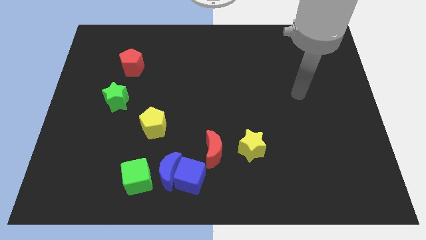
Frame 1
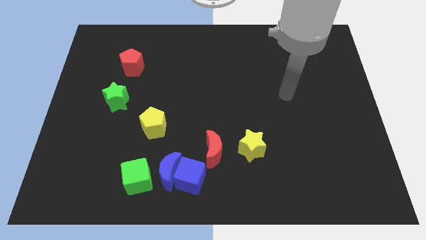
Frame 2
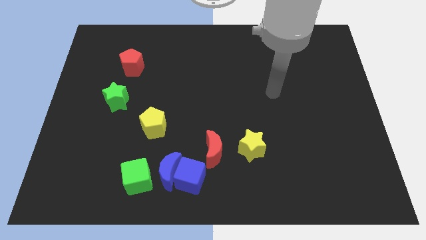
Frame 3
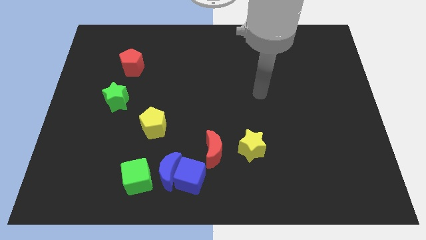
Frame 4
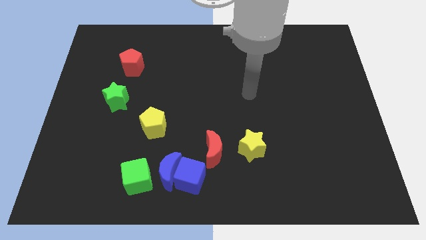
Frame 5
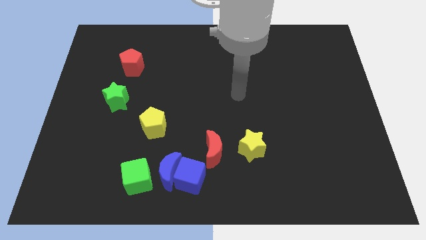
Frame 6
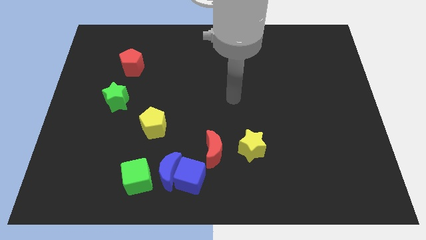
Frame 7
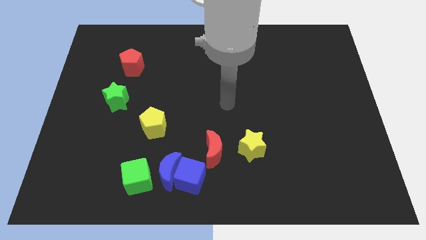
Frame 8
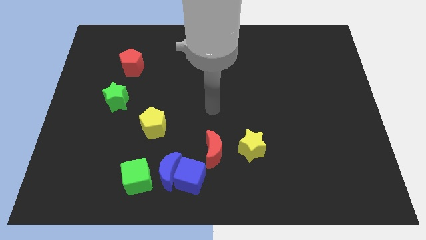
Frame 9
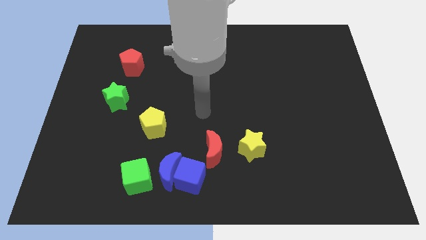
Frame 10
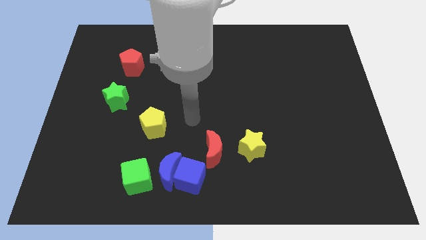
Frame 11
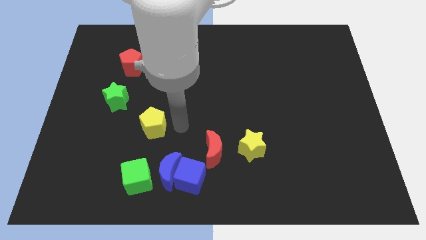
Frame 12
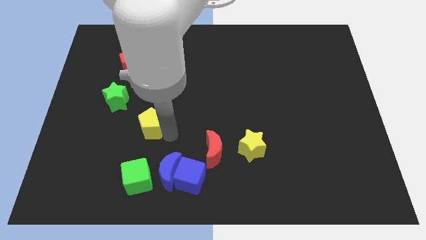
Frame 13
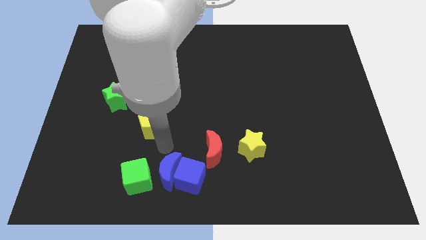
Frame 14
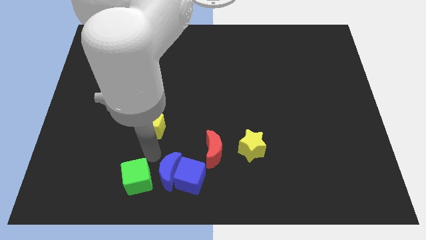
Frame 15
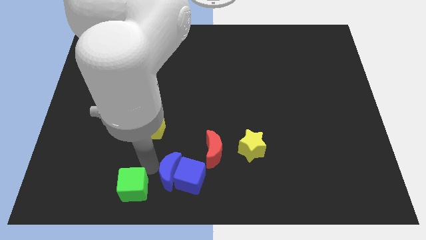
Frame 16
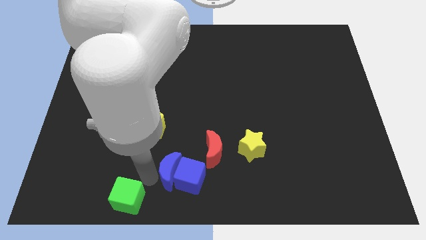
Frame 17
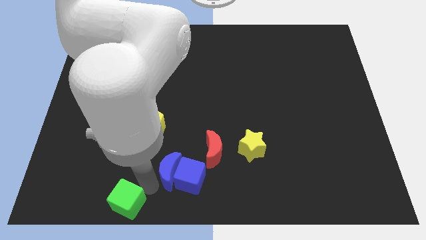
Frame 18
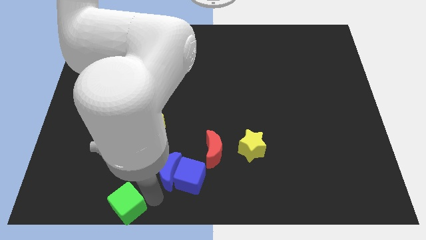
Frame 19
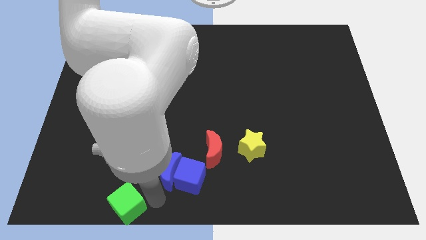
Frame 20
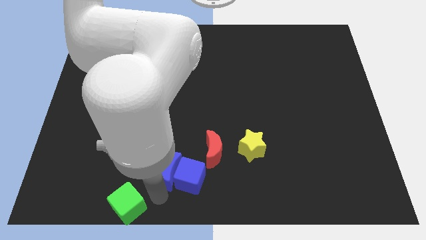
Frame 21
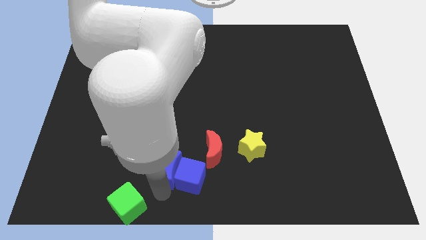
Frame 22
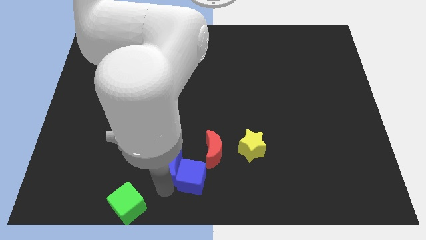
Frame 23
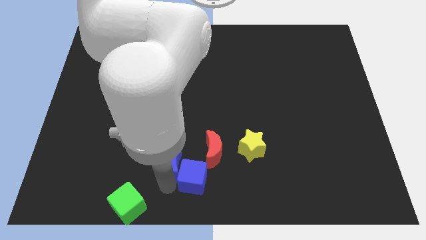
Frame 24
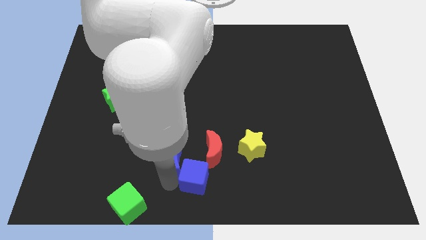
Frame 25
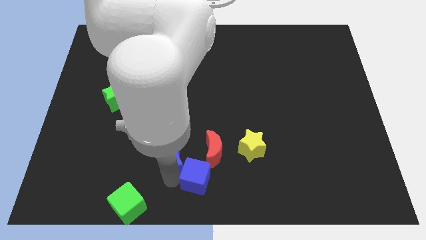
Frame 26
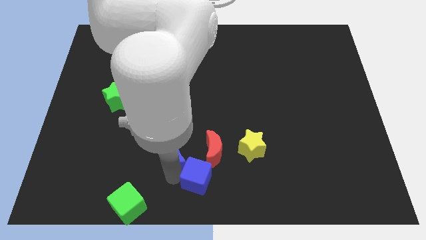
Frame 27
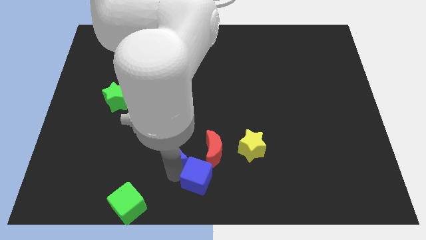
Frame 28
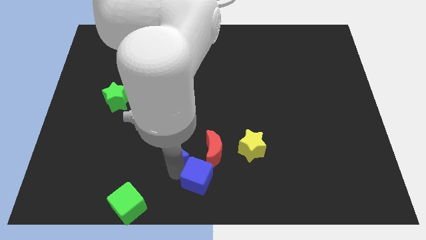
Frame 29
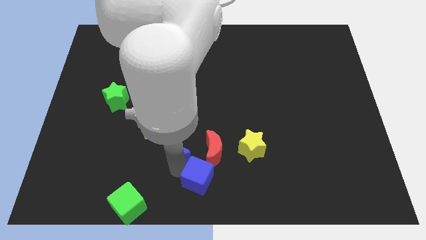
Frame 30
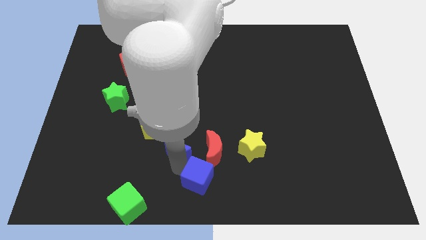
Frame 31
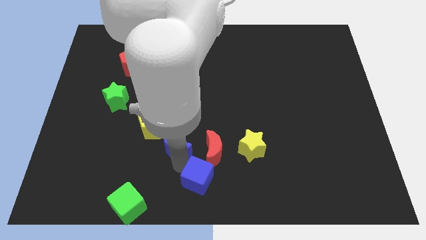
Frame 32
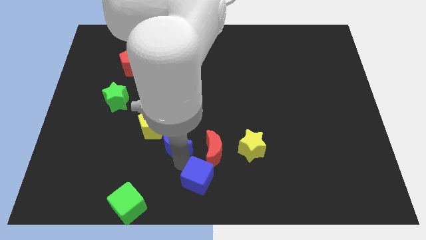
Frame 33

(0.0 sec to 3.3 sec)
pull the blue moon apart from the blue cube and green cube

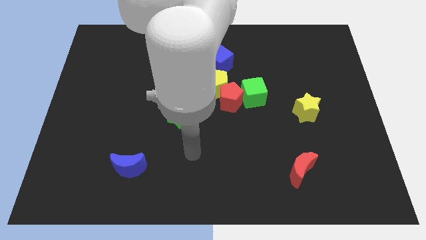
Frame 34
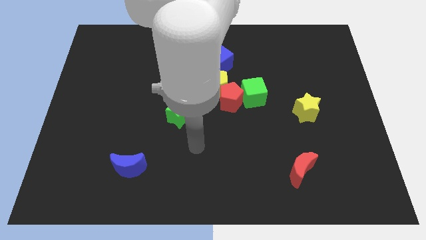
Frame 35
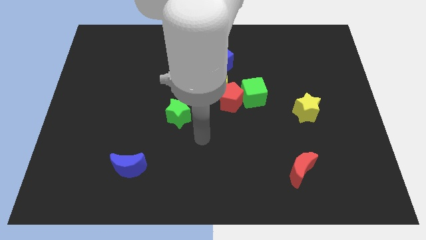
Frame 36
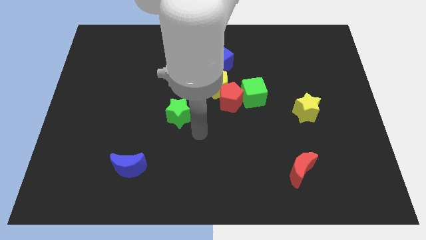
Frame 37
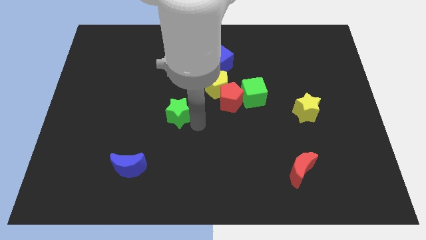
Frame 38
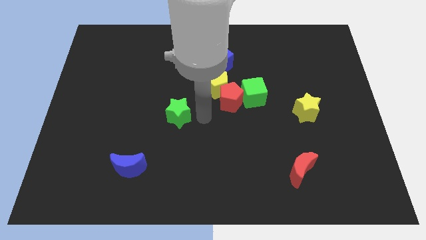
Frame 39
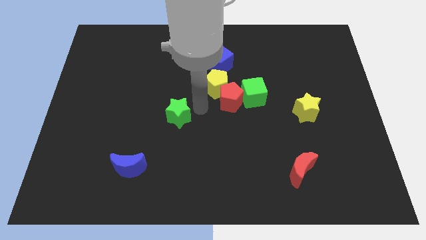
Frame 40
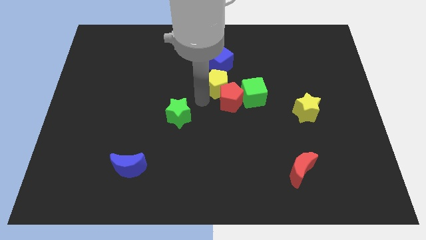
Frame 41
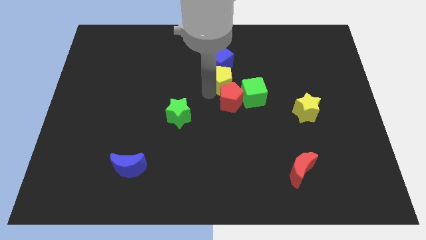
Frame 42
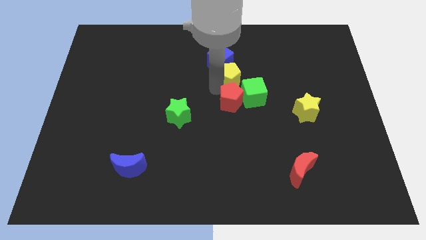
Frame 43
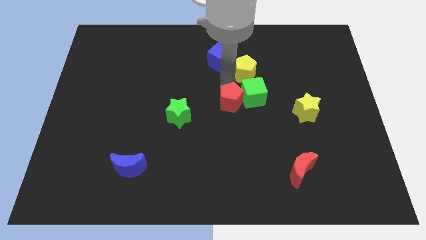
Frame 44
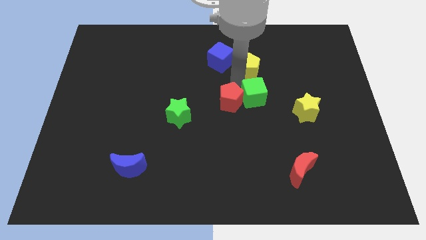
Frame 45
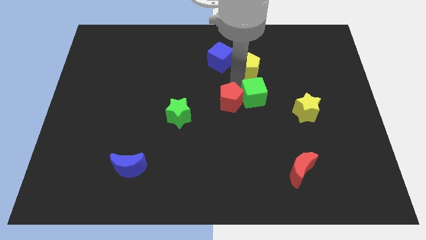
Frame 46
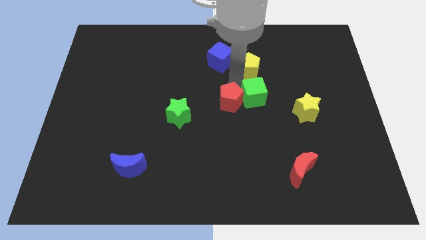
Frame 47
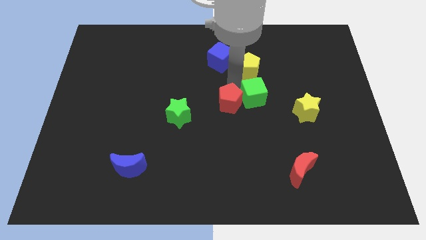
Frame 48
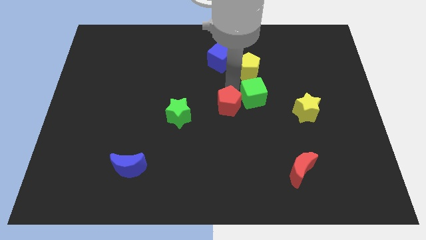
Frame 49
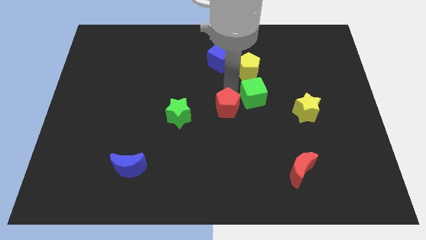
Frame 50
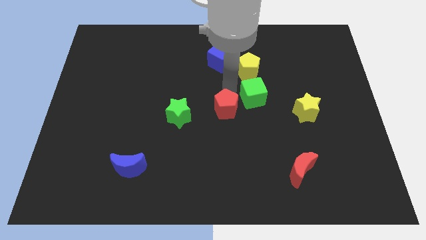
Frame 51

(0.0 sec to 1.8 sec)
move the red pentagon away from the green cube and yellow pentagon

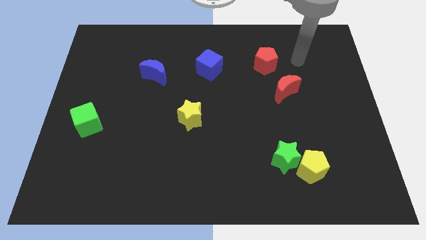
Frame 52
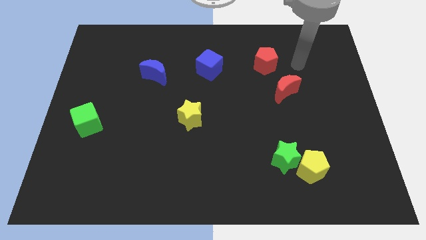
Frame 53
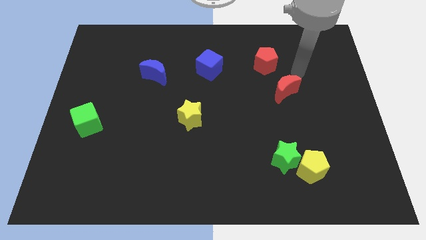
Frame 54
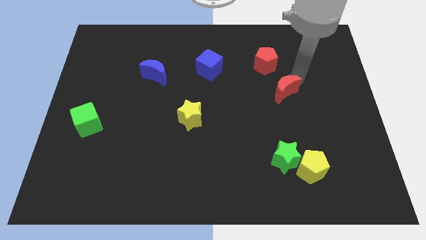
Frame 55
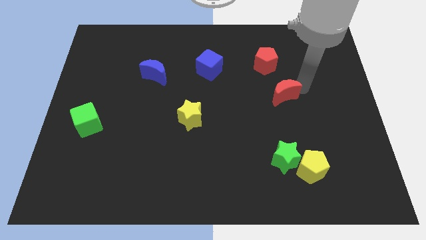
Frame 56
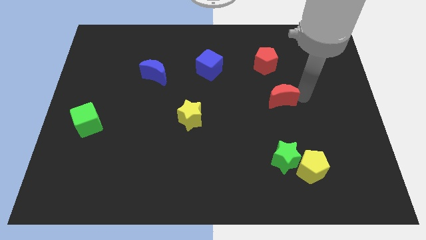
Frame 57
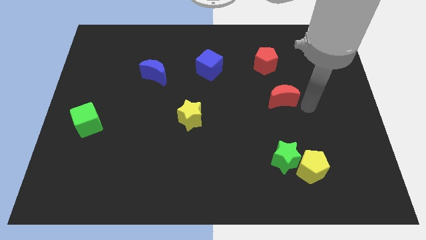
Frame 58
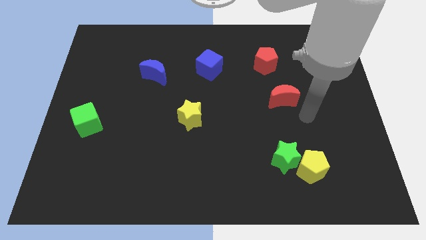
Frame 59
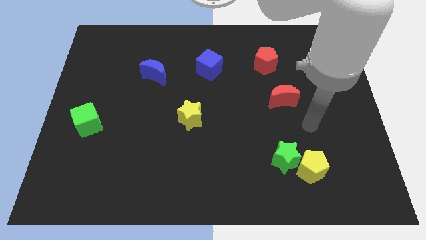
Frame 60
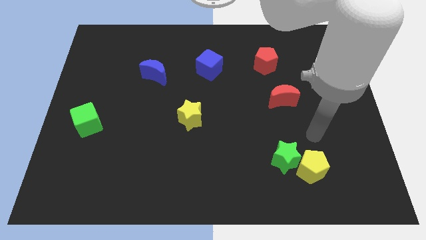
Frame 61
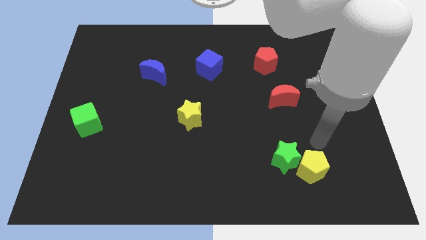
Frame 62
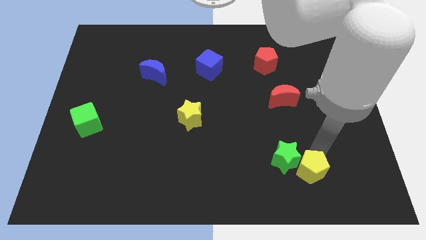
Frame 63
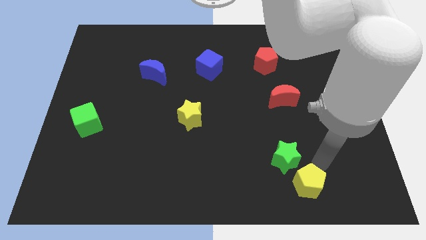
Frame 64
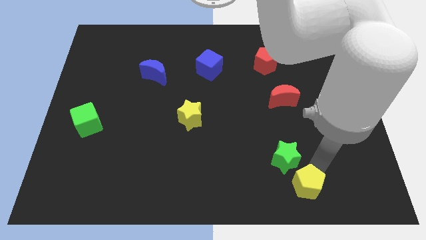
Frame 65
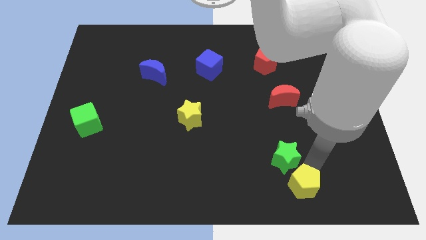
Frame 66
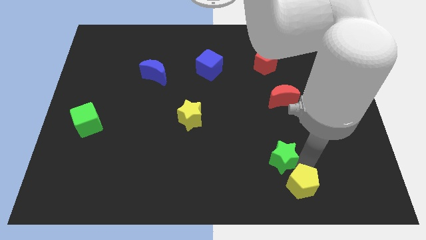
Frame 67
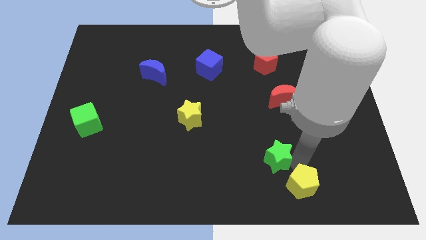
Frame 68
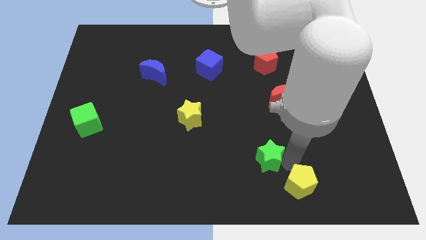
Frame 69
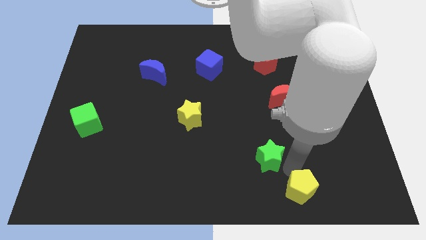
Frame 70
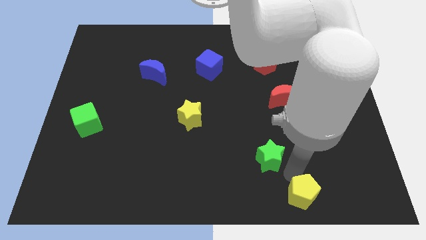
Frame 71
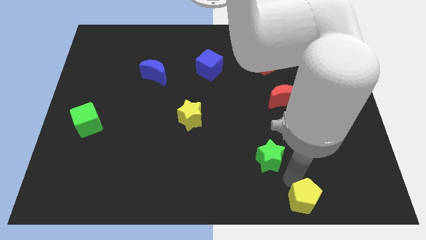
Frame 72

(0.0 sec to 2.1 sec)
move the green star away from the yellow pentagon

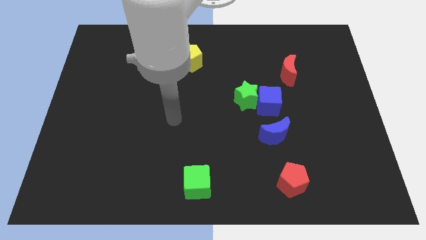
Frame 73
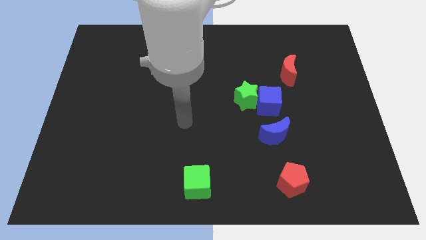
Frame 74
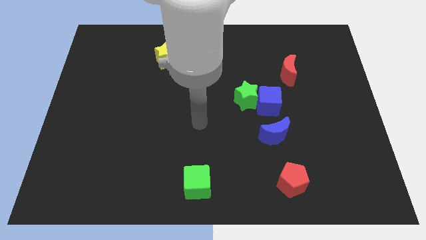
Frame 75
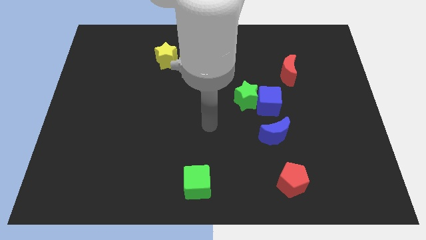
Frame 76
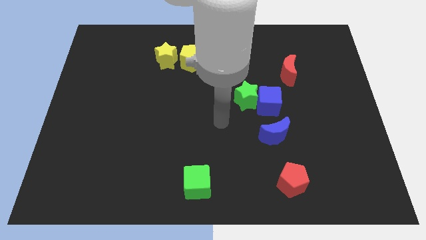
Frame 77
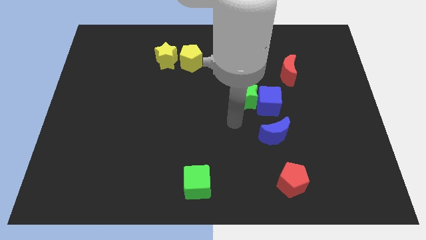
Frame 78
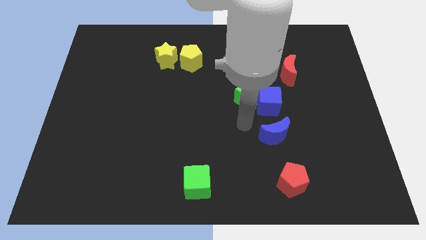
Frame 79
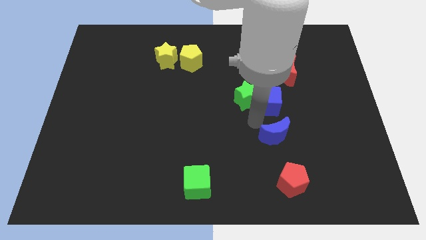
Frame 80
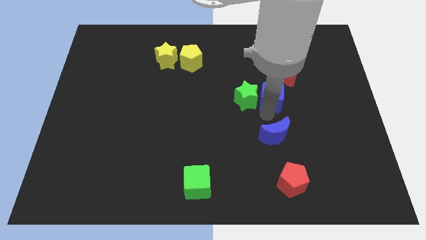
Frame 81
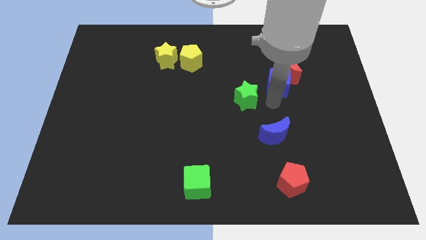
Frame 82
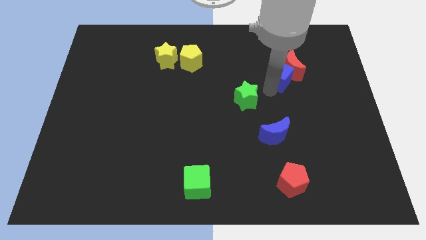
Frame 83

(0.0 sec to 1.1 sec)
pull the green star apart from the blue cube

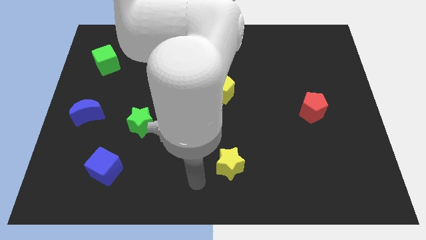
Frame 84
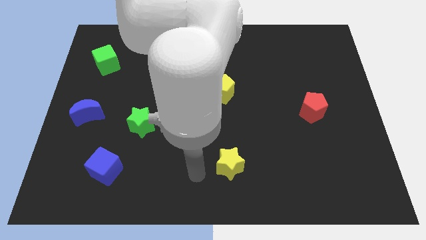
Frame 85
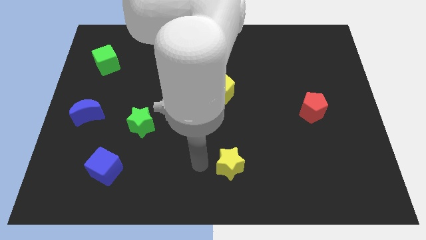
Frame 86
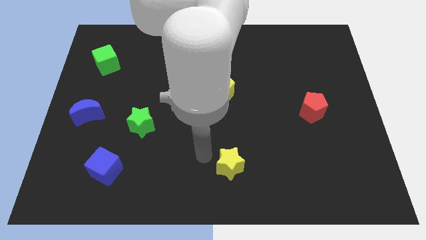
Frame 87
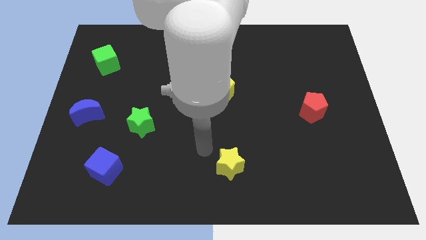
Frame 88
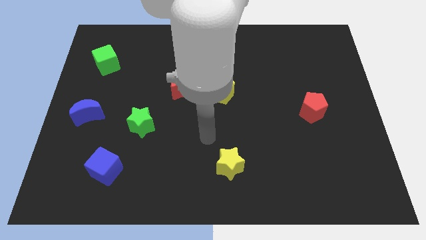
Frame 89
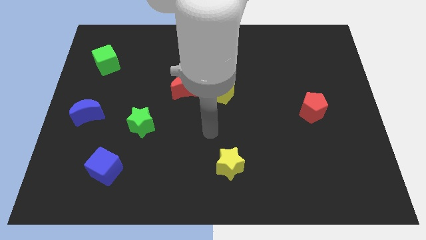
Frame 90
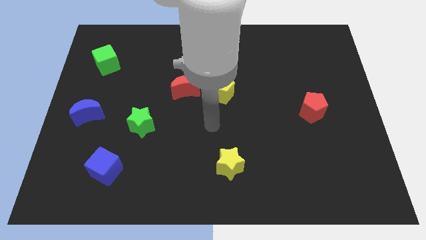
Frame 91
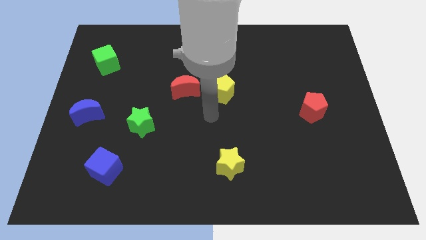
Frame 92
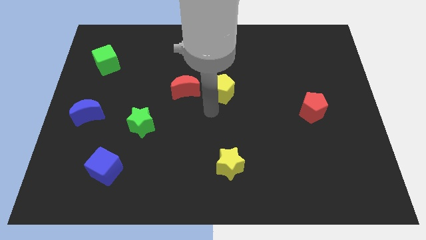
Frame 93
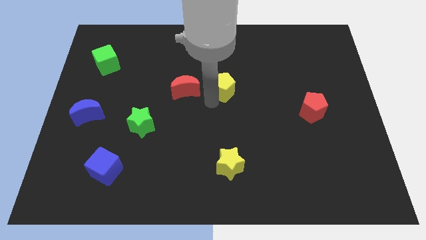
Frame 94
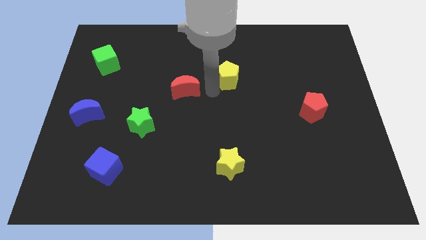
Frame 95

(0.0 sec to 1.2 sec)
move the red moon away from the yellow pentagon

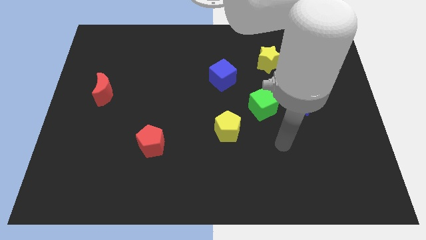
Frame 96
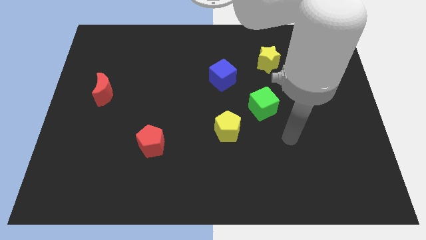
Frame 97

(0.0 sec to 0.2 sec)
move the blue moon away from the green star
